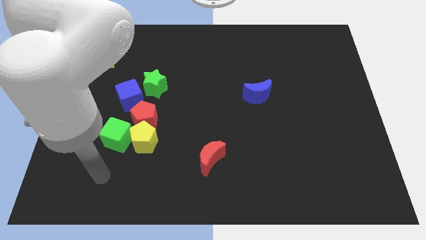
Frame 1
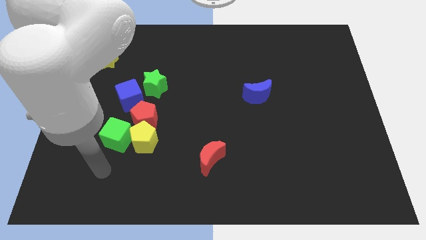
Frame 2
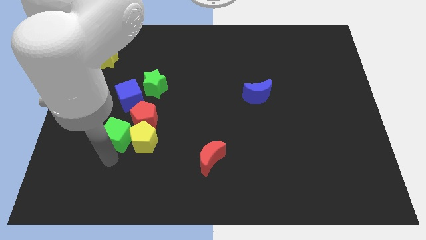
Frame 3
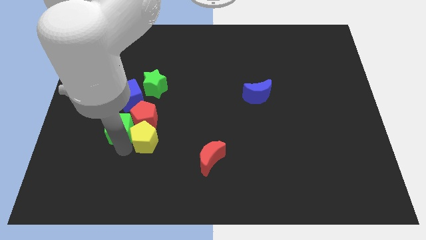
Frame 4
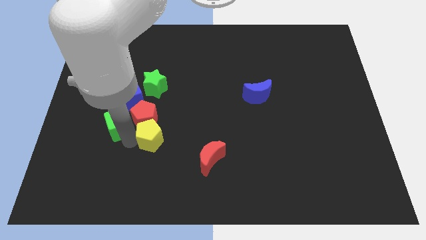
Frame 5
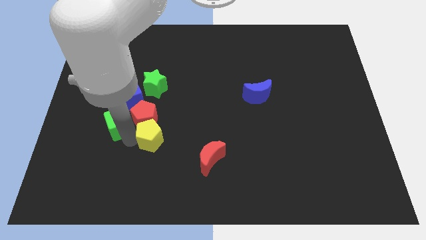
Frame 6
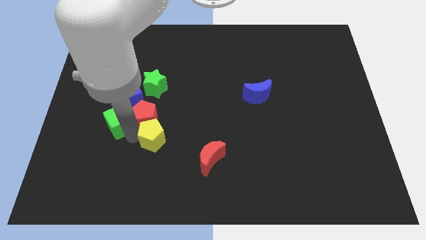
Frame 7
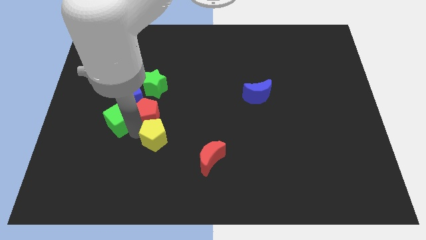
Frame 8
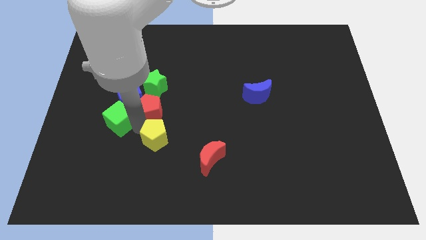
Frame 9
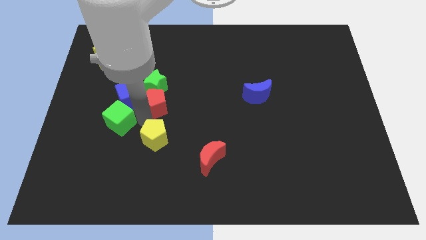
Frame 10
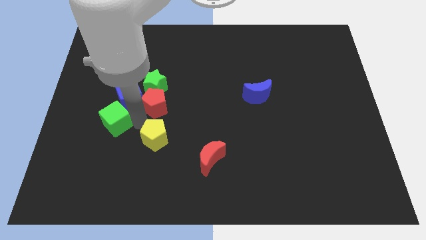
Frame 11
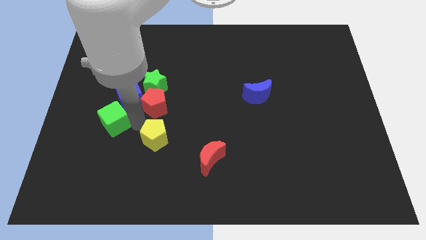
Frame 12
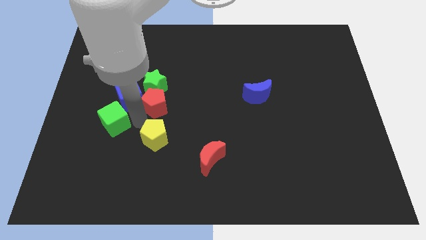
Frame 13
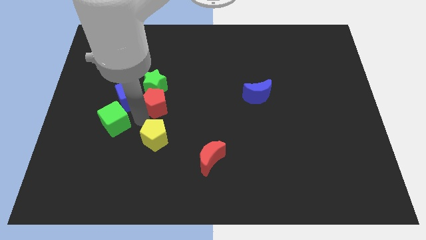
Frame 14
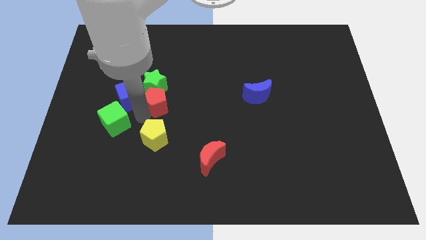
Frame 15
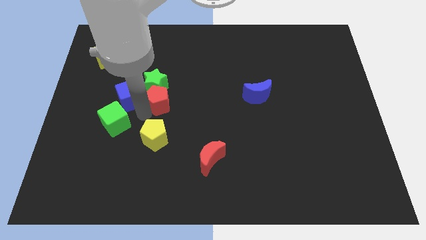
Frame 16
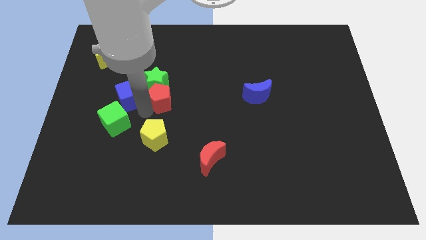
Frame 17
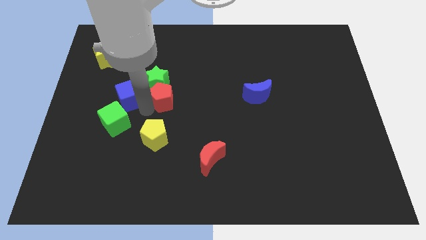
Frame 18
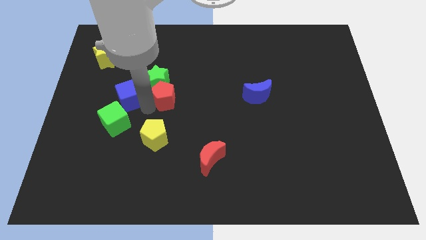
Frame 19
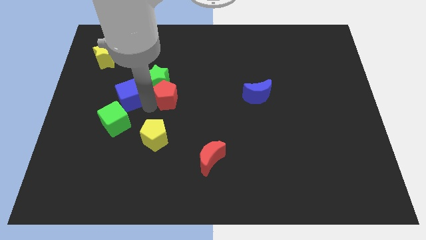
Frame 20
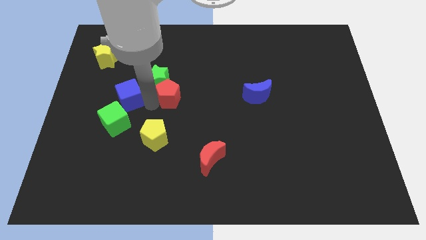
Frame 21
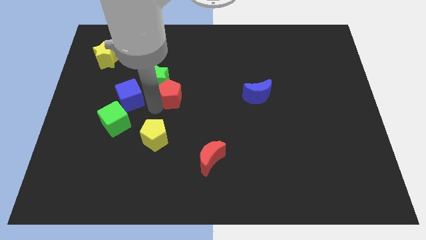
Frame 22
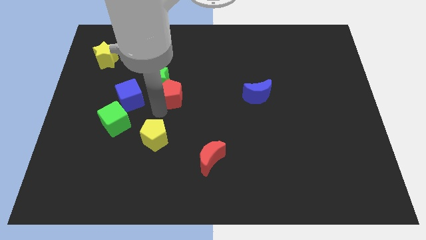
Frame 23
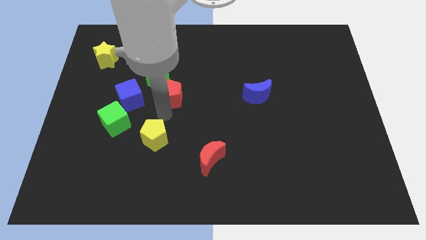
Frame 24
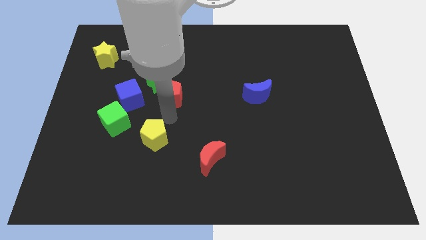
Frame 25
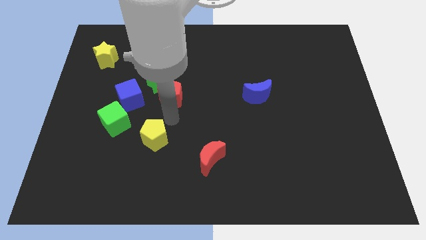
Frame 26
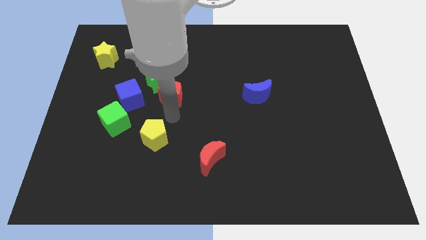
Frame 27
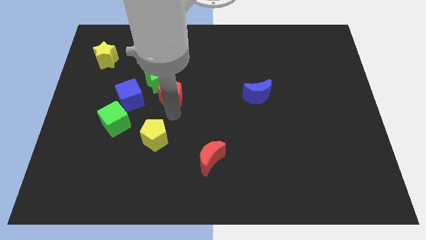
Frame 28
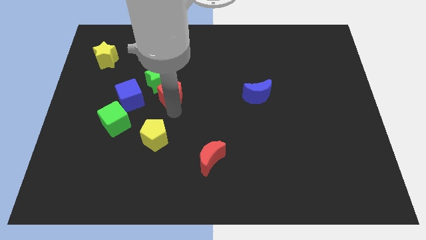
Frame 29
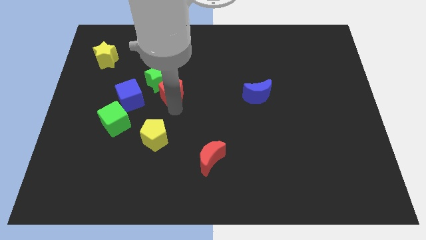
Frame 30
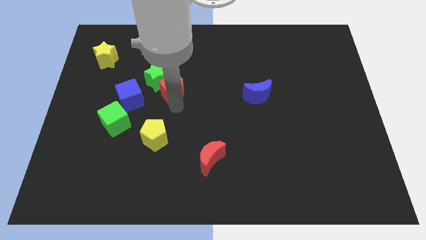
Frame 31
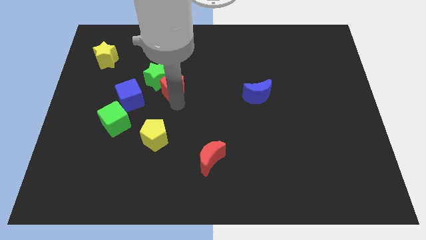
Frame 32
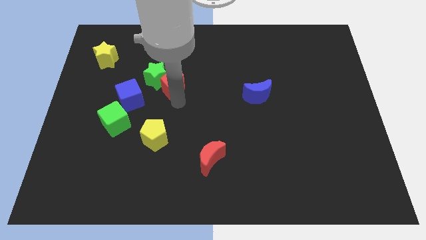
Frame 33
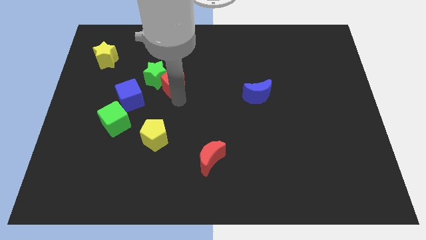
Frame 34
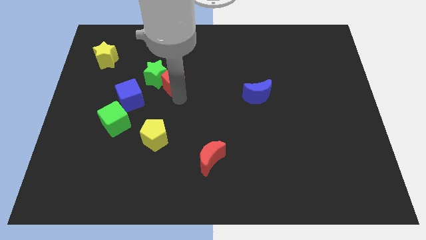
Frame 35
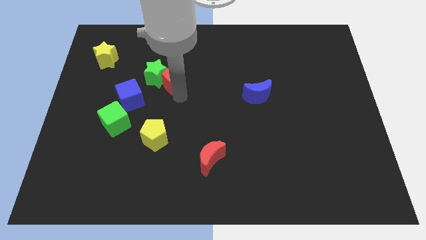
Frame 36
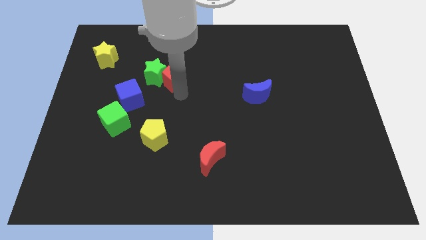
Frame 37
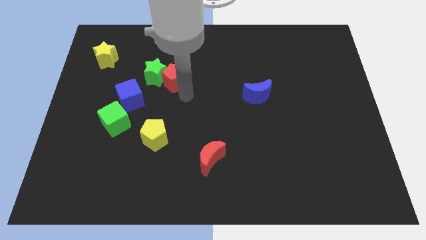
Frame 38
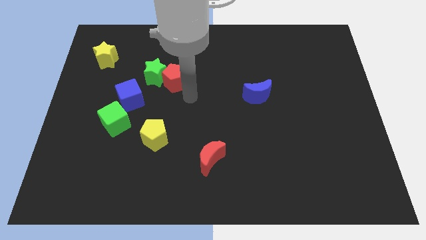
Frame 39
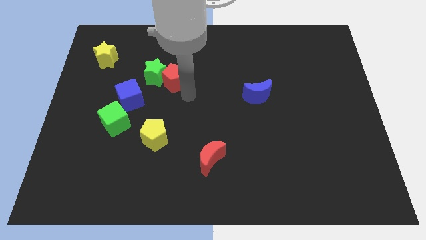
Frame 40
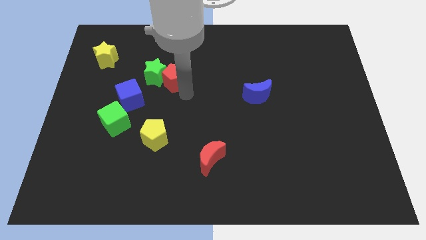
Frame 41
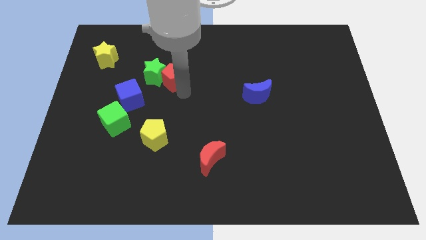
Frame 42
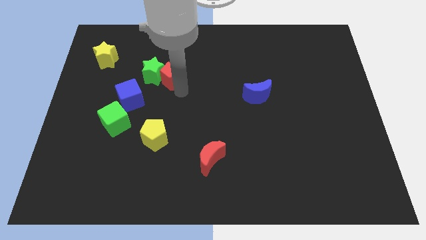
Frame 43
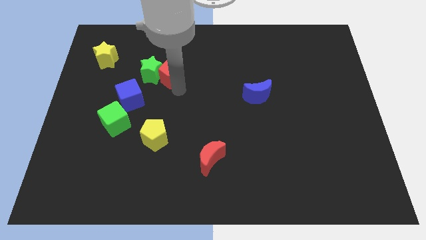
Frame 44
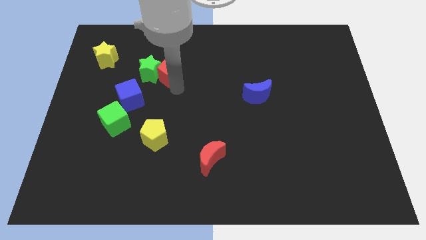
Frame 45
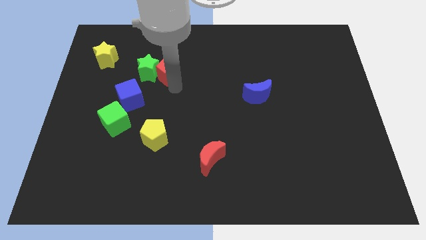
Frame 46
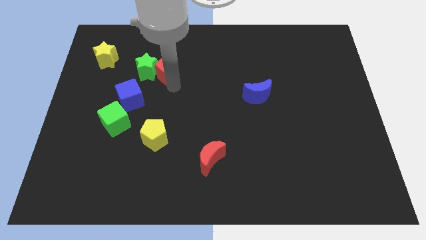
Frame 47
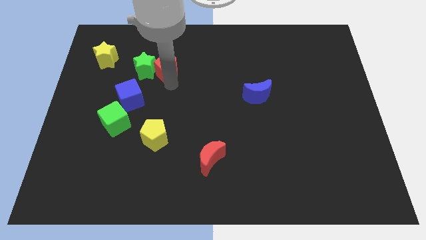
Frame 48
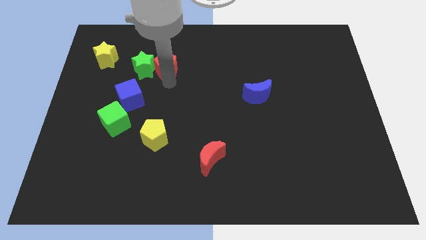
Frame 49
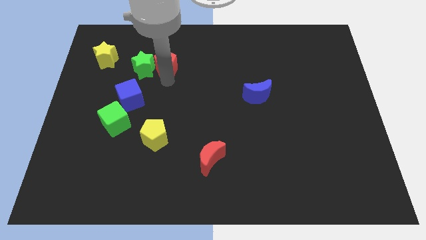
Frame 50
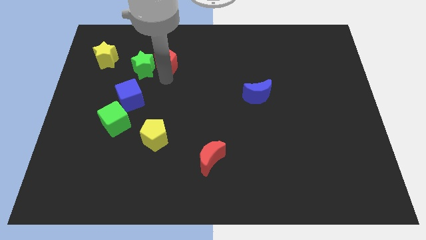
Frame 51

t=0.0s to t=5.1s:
push the red pentagon to the right side of the yellow star

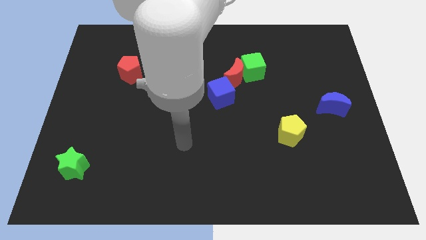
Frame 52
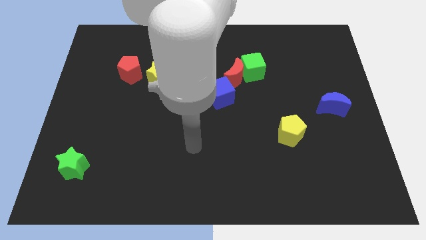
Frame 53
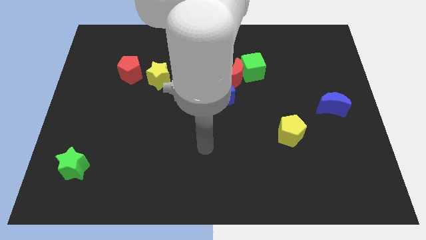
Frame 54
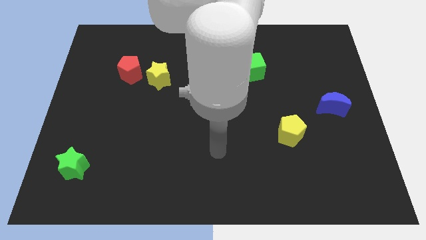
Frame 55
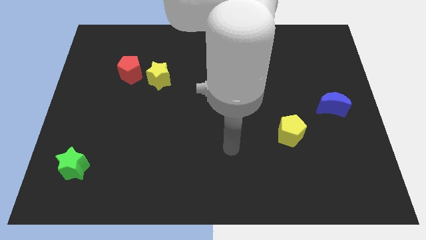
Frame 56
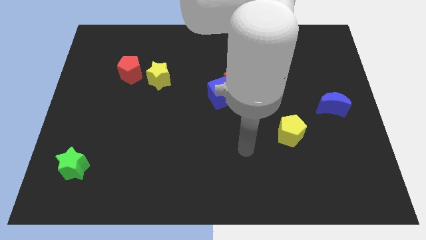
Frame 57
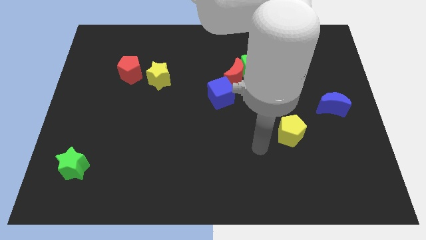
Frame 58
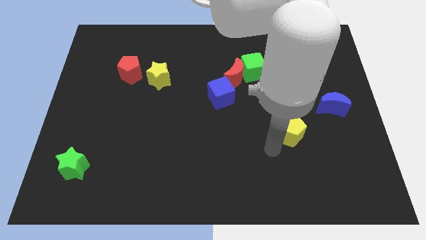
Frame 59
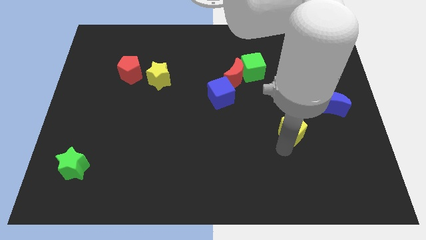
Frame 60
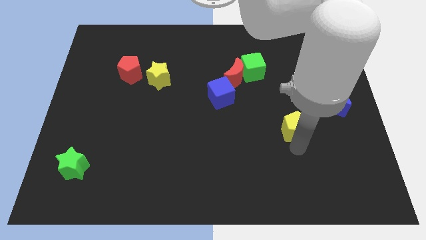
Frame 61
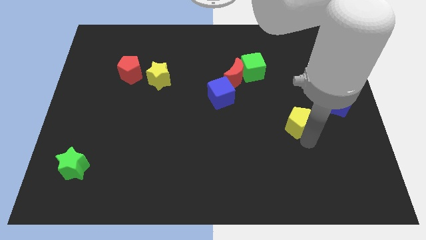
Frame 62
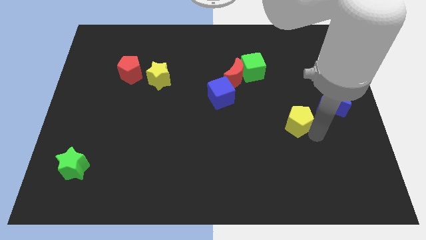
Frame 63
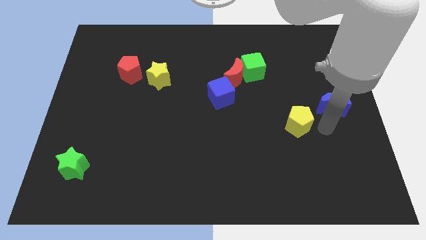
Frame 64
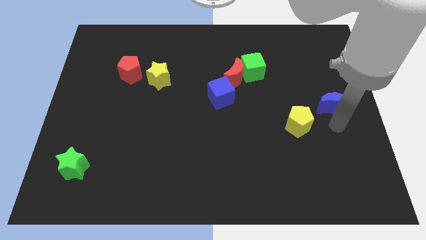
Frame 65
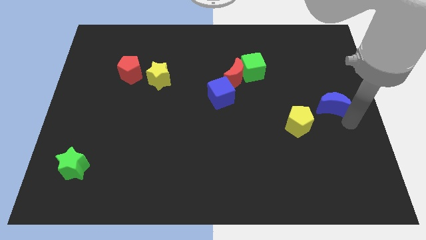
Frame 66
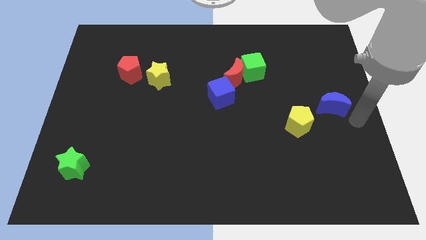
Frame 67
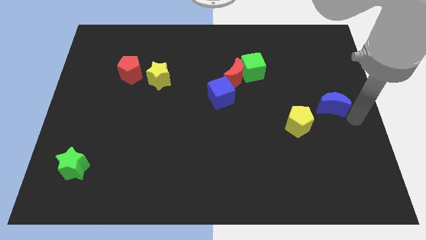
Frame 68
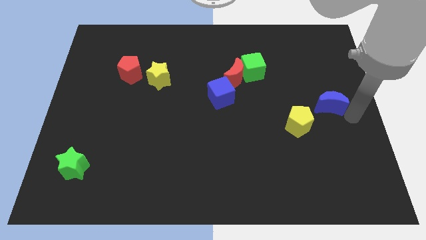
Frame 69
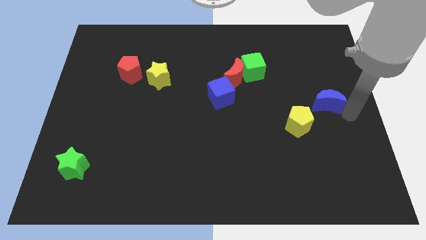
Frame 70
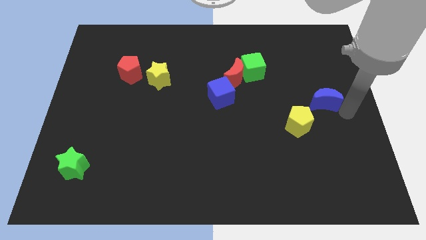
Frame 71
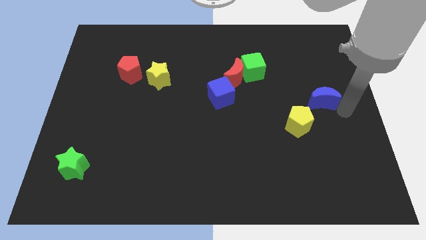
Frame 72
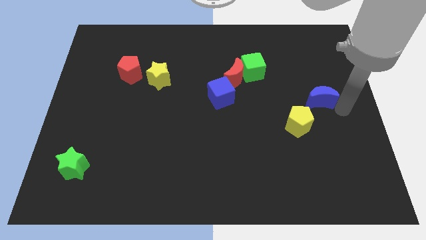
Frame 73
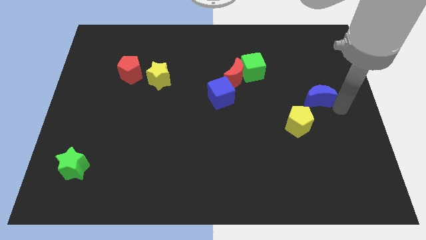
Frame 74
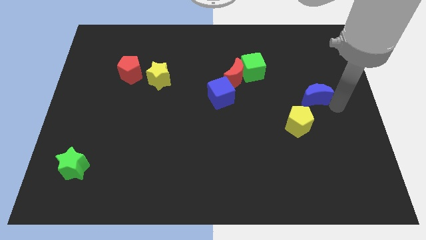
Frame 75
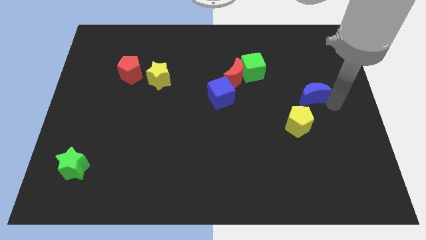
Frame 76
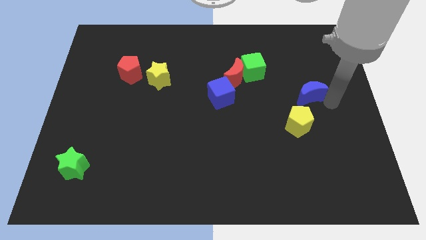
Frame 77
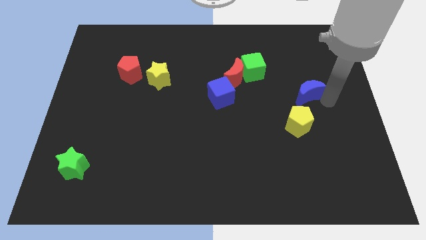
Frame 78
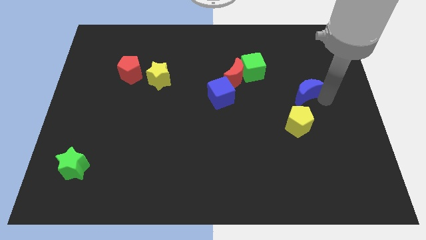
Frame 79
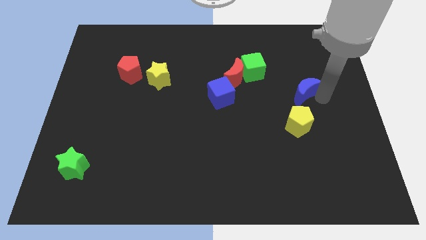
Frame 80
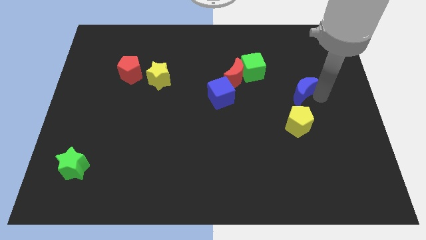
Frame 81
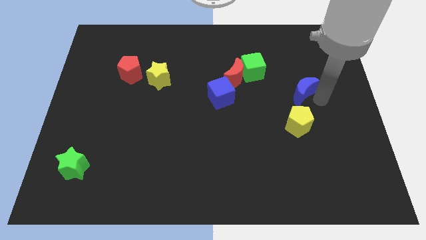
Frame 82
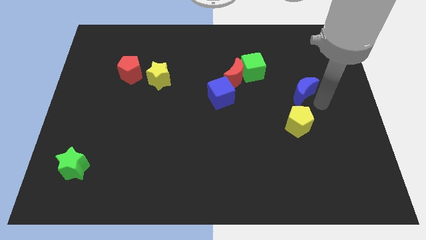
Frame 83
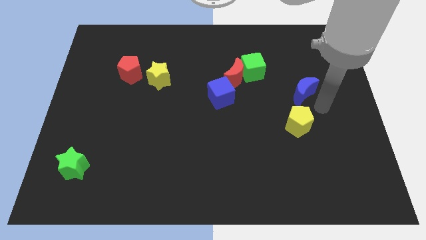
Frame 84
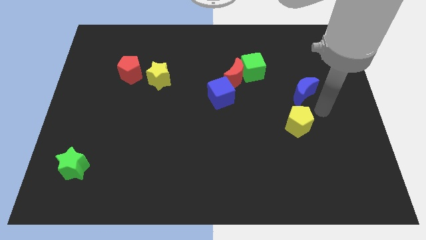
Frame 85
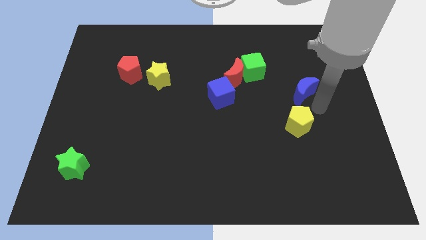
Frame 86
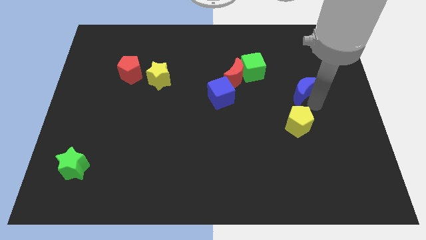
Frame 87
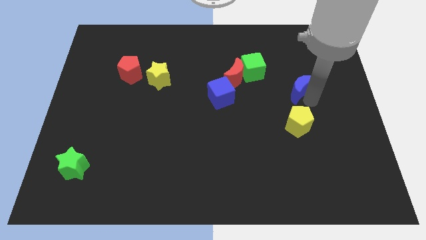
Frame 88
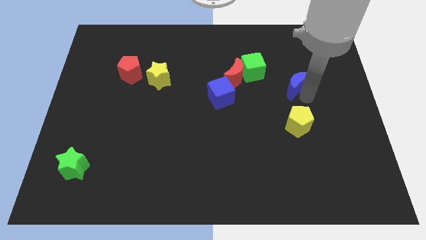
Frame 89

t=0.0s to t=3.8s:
put the blue moon to the right of the red moon
